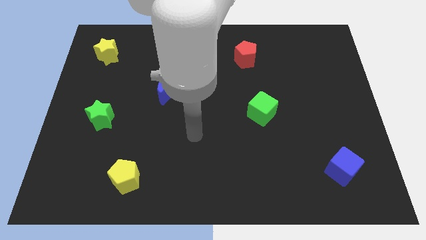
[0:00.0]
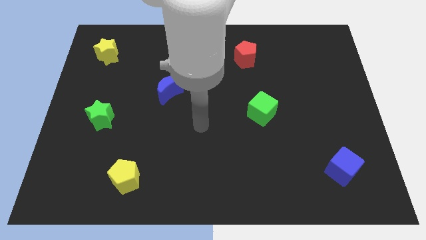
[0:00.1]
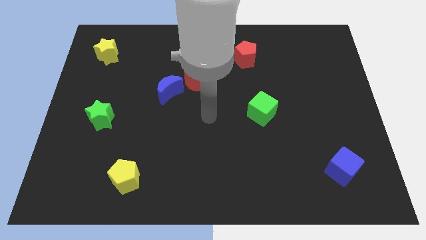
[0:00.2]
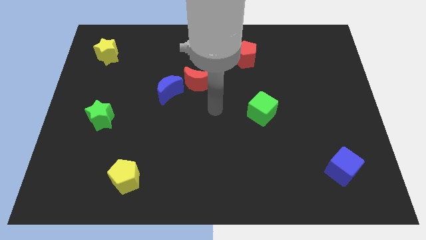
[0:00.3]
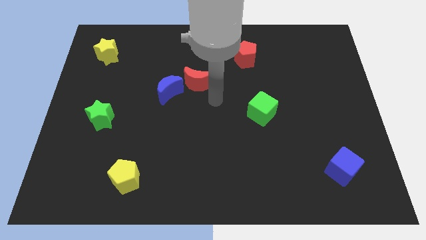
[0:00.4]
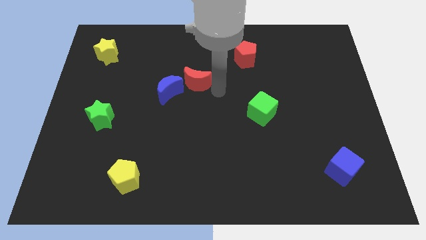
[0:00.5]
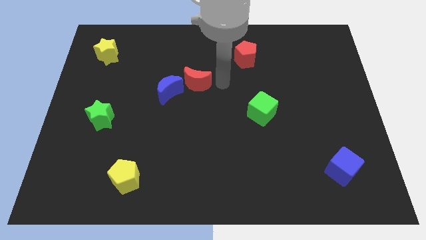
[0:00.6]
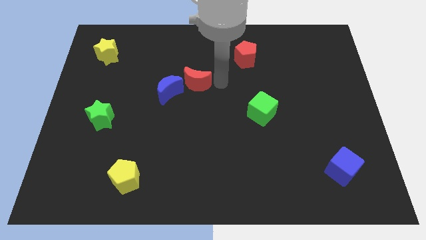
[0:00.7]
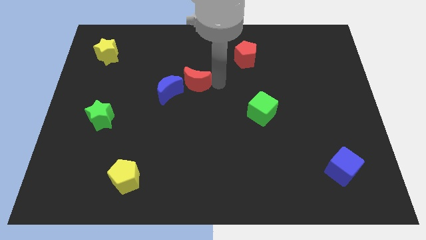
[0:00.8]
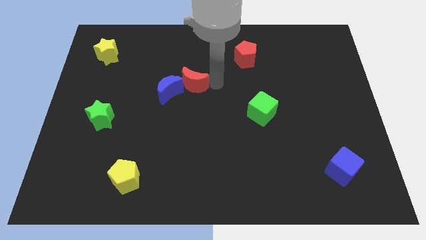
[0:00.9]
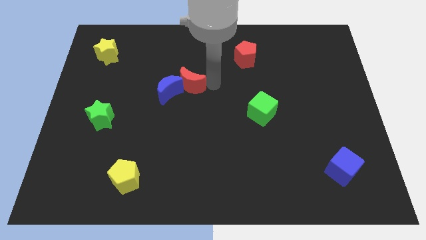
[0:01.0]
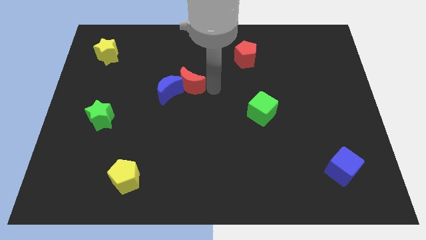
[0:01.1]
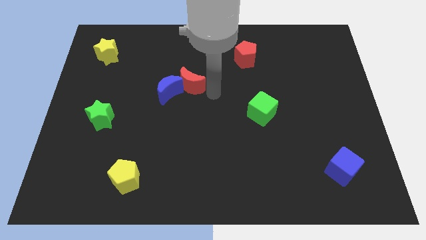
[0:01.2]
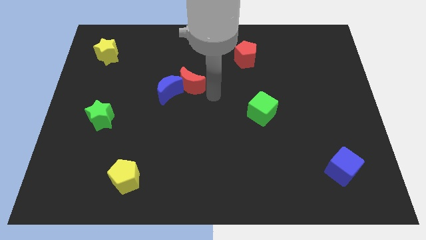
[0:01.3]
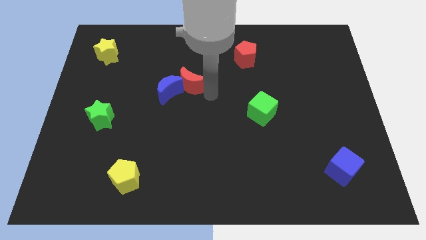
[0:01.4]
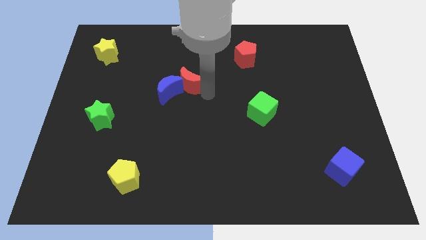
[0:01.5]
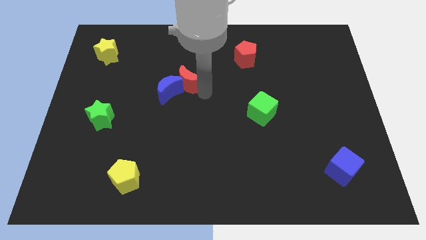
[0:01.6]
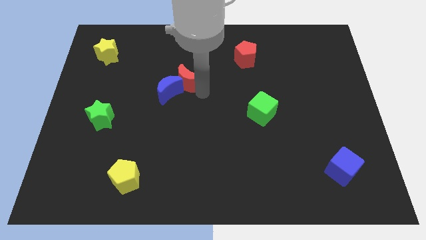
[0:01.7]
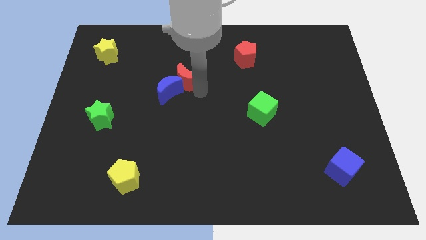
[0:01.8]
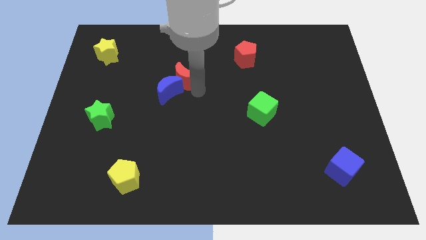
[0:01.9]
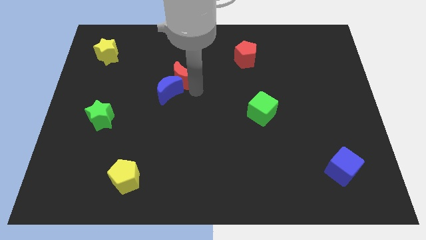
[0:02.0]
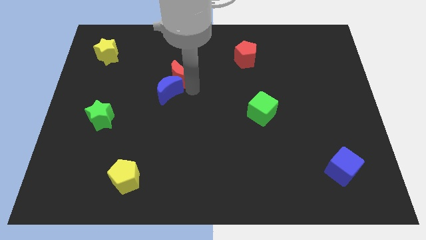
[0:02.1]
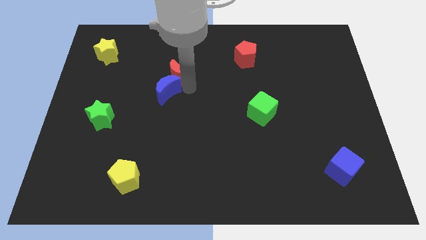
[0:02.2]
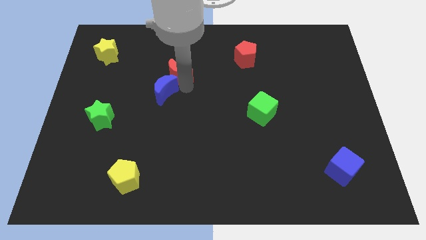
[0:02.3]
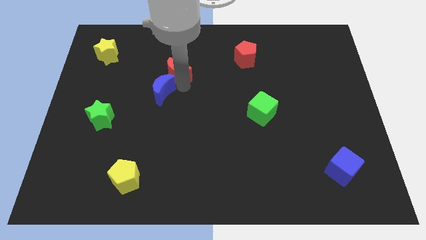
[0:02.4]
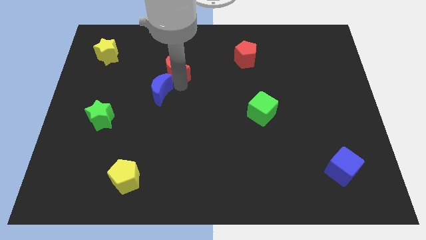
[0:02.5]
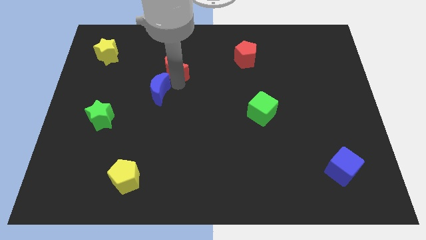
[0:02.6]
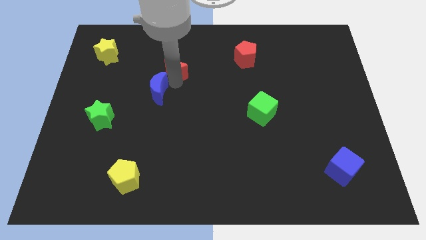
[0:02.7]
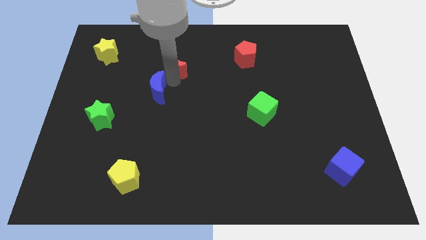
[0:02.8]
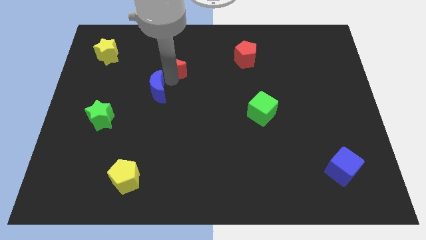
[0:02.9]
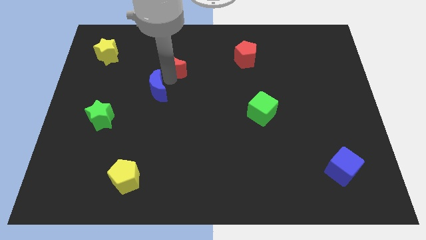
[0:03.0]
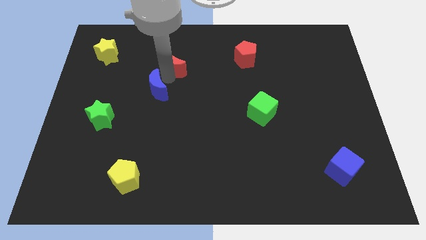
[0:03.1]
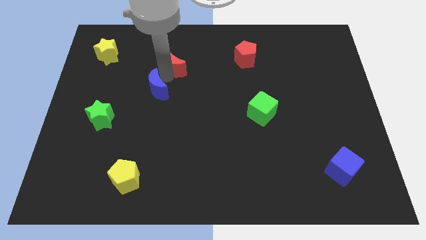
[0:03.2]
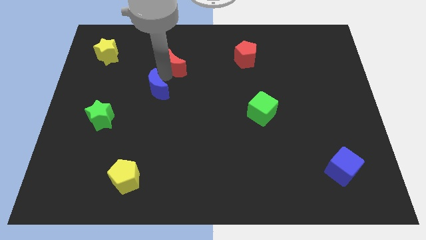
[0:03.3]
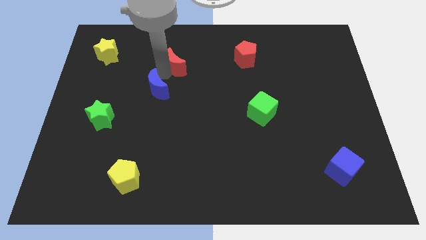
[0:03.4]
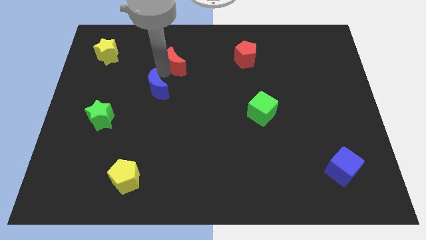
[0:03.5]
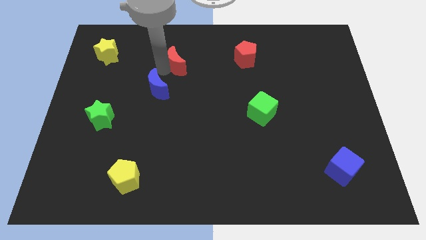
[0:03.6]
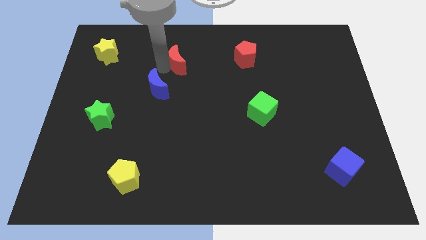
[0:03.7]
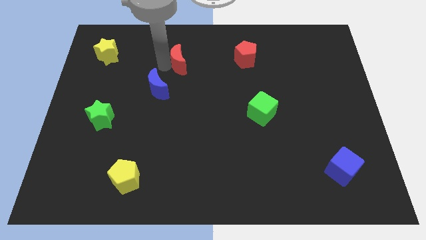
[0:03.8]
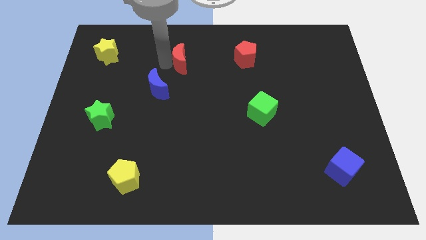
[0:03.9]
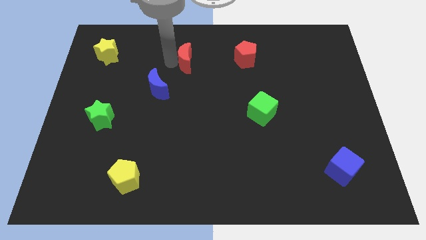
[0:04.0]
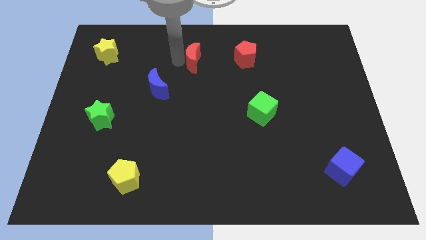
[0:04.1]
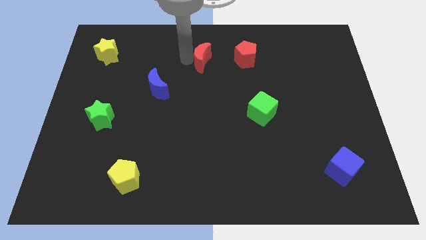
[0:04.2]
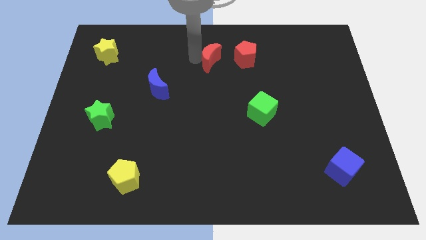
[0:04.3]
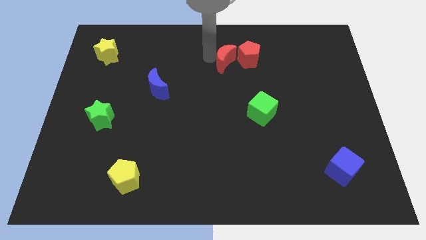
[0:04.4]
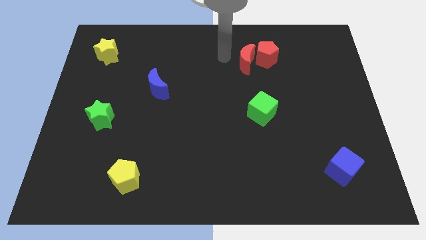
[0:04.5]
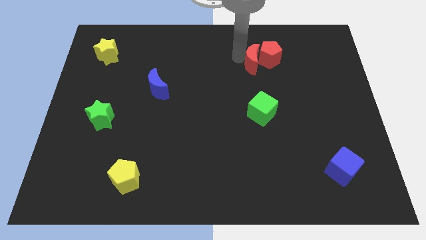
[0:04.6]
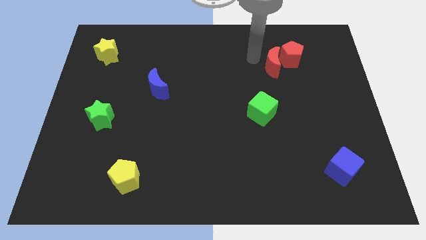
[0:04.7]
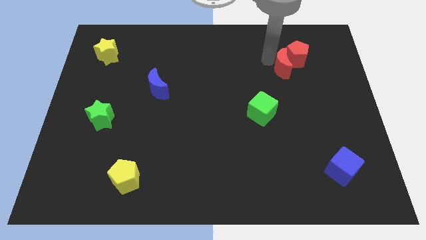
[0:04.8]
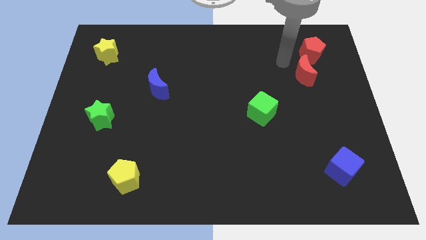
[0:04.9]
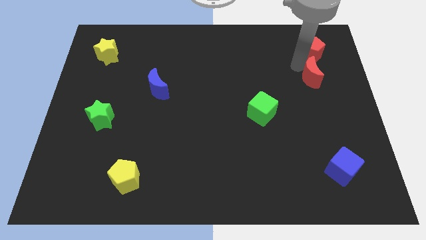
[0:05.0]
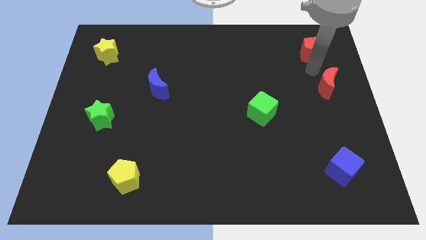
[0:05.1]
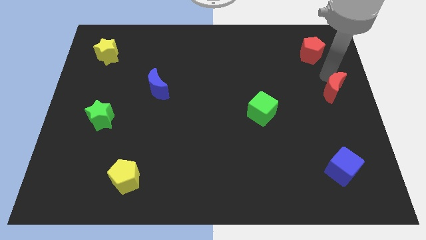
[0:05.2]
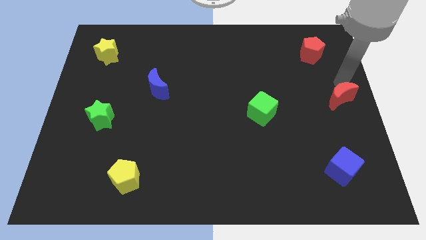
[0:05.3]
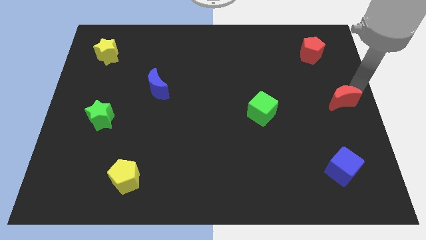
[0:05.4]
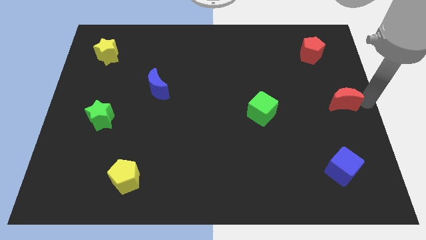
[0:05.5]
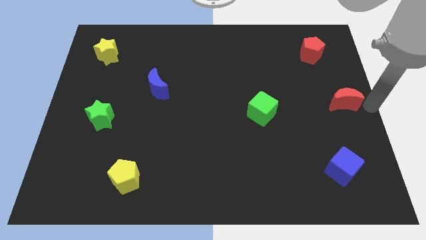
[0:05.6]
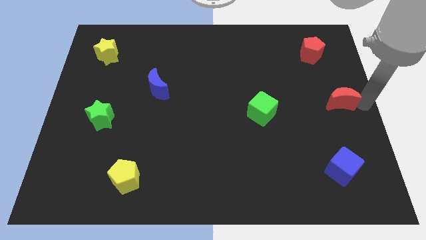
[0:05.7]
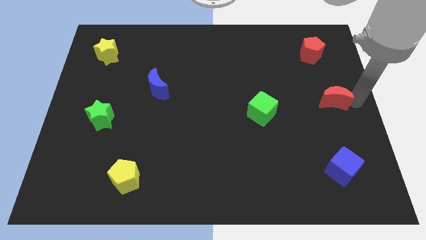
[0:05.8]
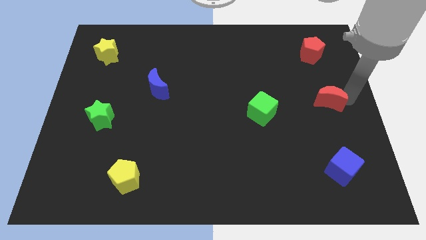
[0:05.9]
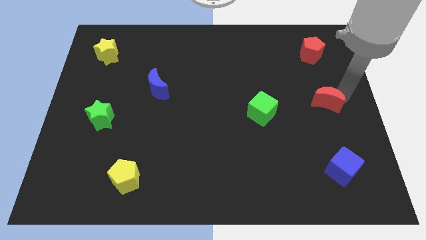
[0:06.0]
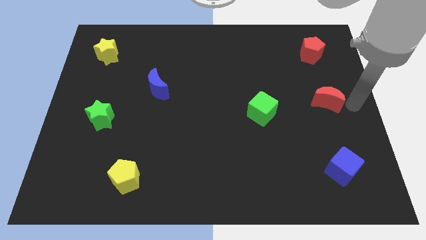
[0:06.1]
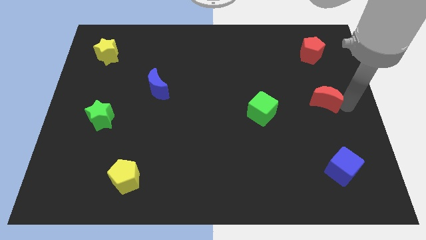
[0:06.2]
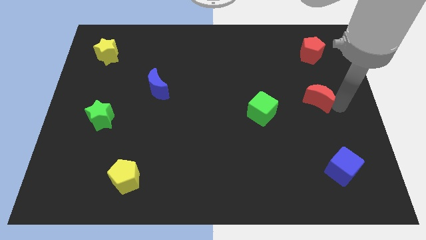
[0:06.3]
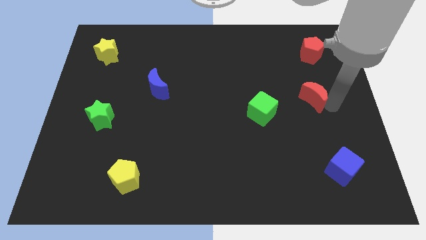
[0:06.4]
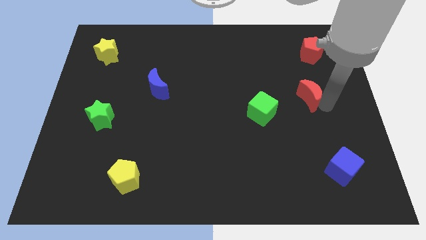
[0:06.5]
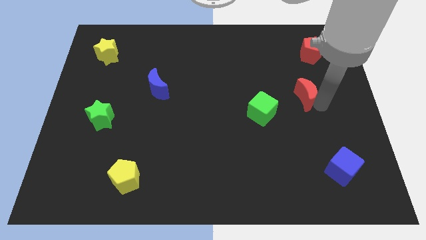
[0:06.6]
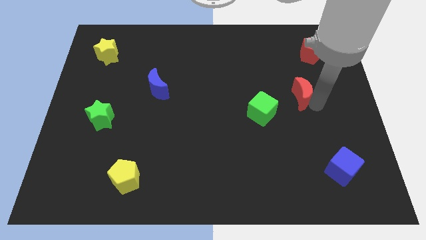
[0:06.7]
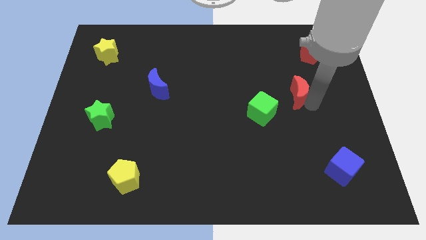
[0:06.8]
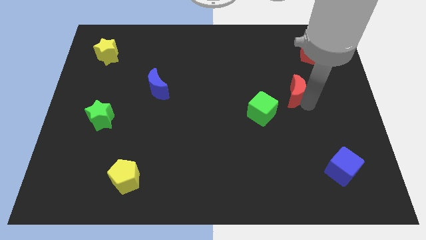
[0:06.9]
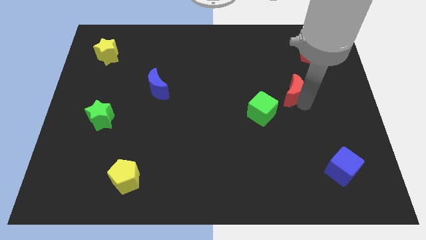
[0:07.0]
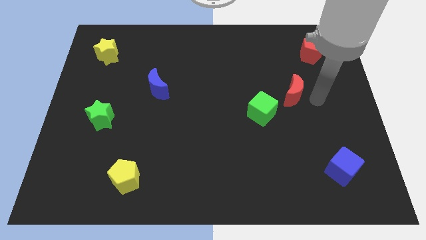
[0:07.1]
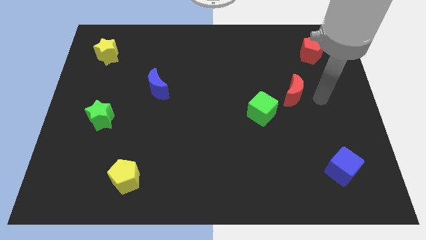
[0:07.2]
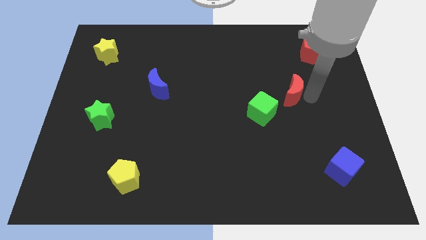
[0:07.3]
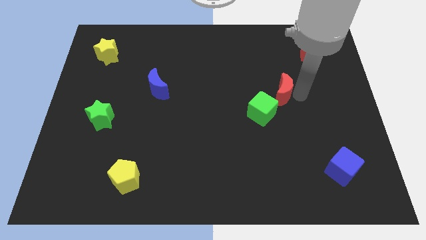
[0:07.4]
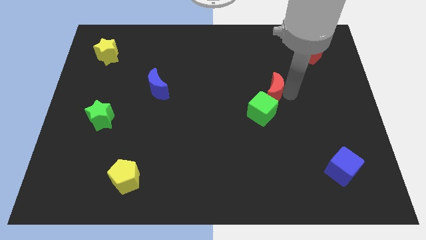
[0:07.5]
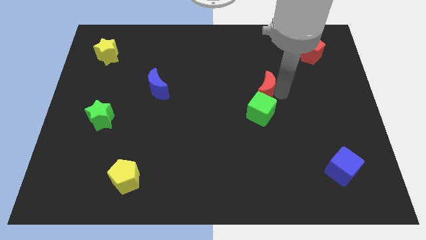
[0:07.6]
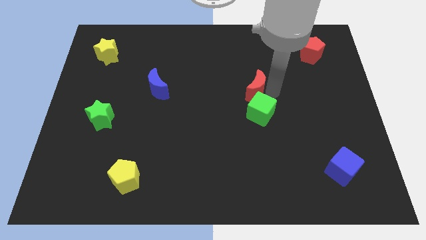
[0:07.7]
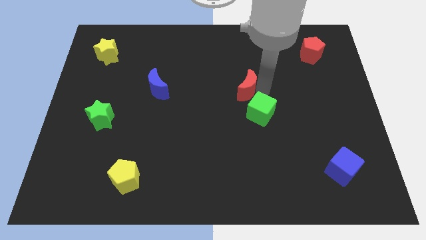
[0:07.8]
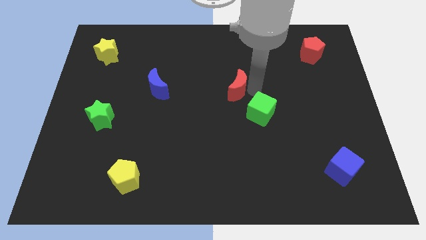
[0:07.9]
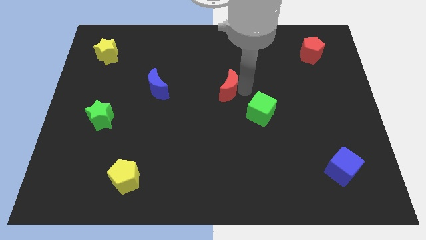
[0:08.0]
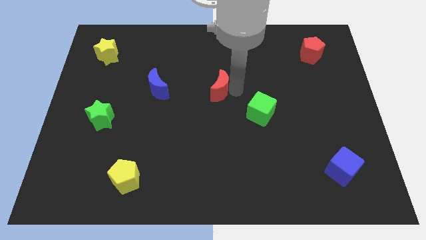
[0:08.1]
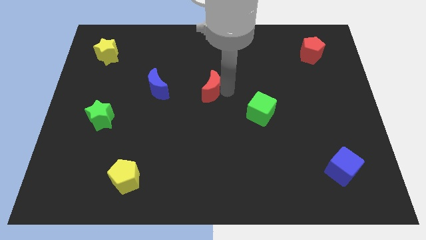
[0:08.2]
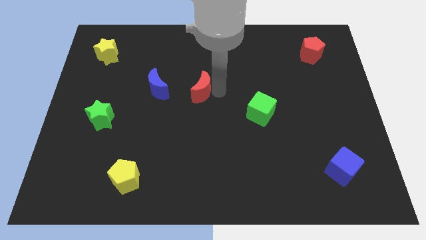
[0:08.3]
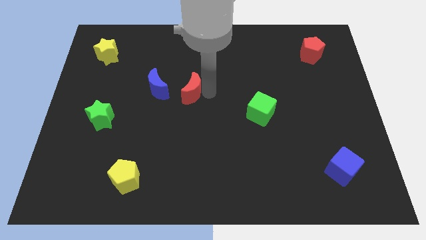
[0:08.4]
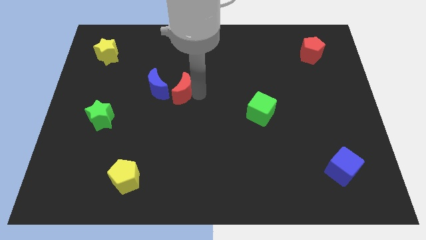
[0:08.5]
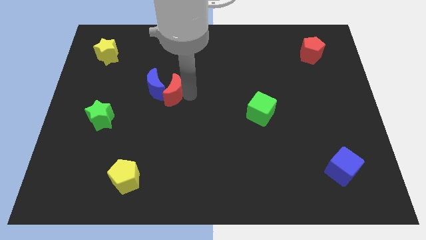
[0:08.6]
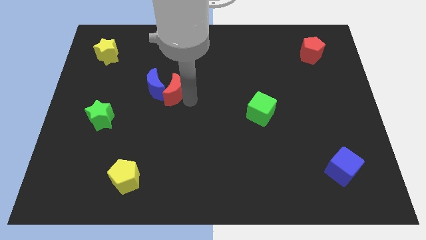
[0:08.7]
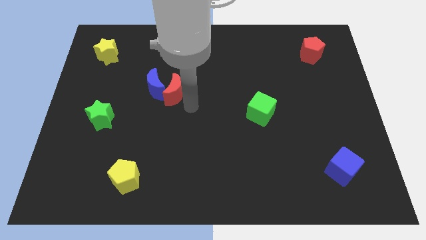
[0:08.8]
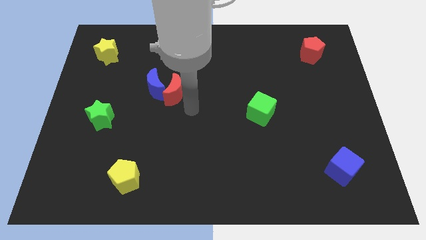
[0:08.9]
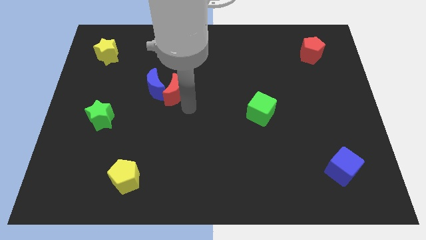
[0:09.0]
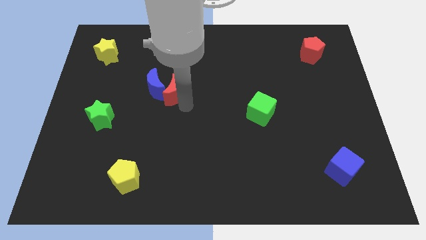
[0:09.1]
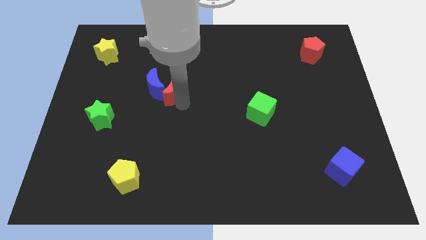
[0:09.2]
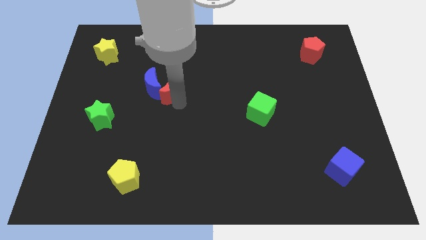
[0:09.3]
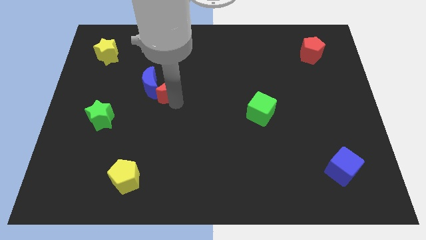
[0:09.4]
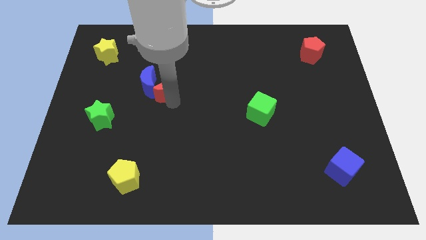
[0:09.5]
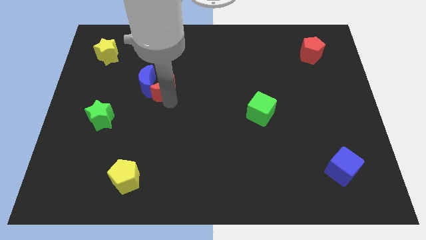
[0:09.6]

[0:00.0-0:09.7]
slightly move the red moon to the left
